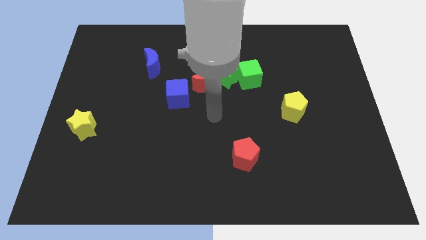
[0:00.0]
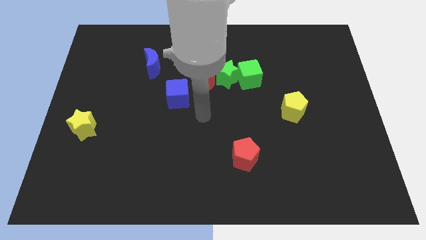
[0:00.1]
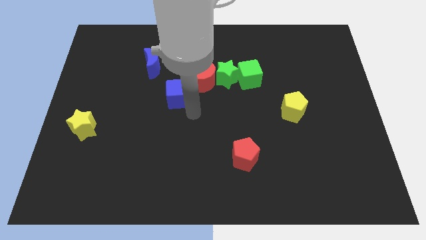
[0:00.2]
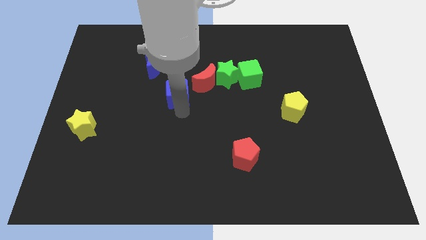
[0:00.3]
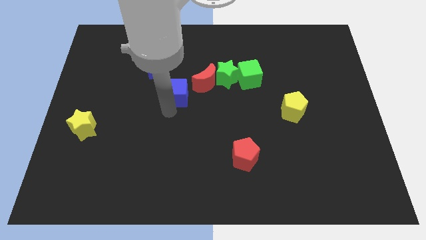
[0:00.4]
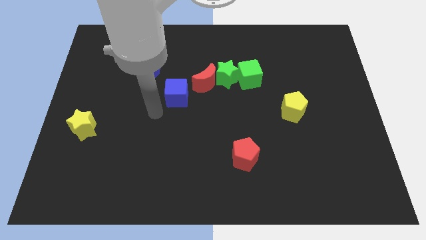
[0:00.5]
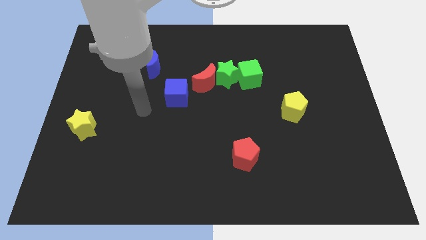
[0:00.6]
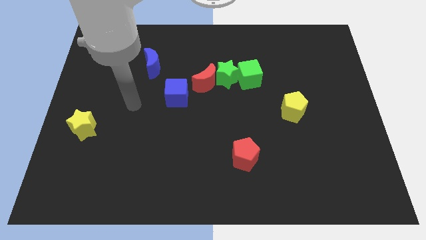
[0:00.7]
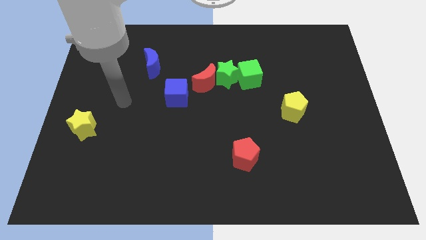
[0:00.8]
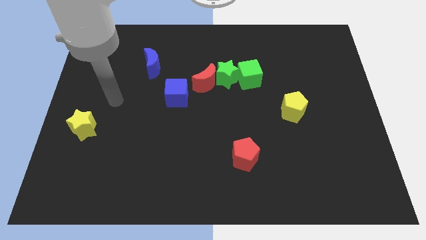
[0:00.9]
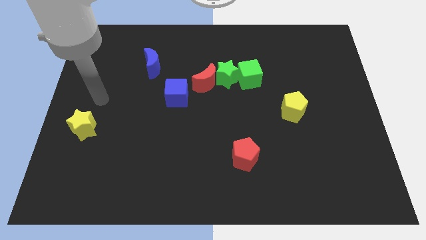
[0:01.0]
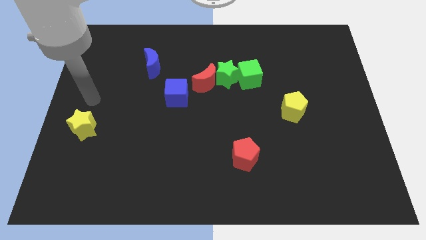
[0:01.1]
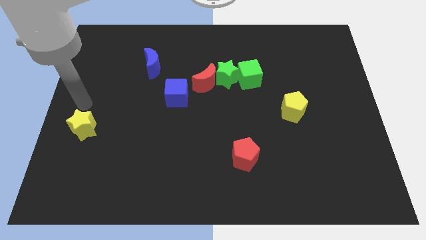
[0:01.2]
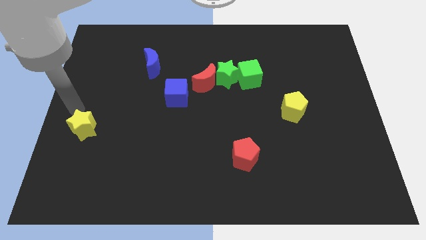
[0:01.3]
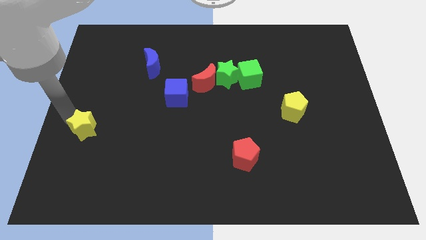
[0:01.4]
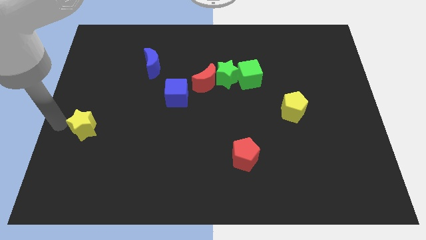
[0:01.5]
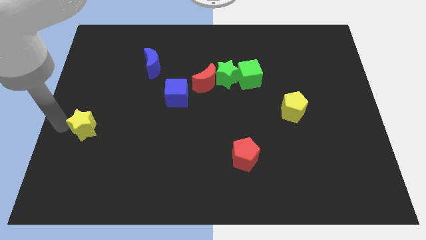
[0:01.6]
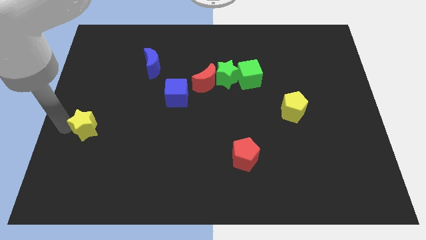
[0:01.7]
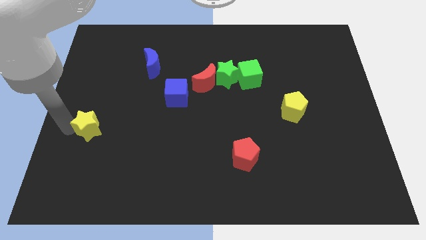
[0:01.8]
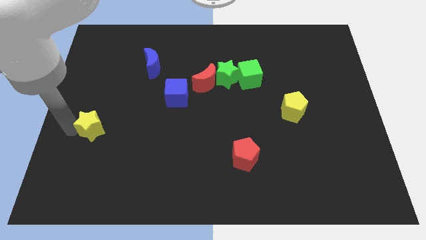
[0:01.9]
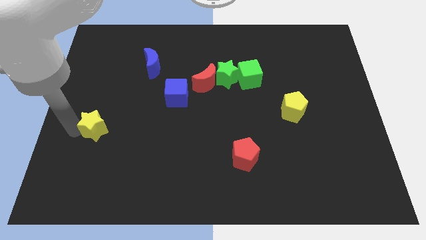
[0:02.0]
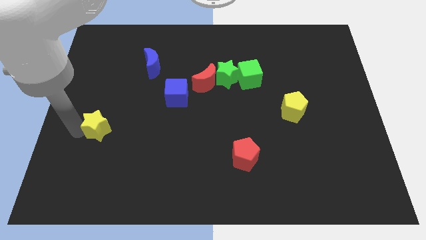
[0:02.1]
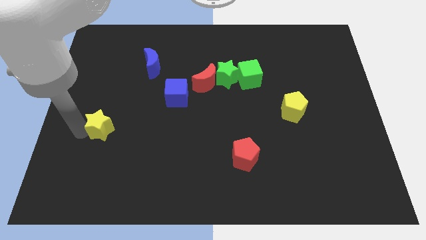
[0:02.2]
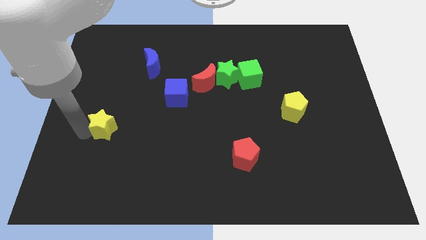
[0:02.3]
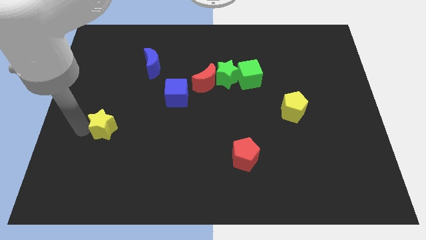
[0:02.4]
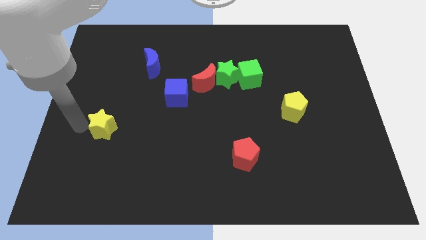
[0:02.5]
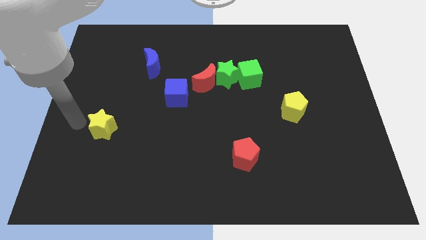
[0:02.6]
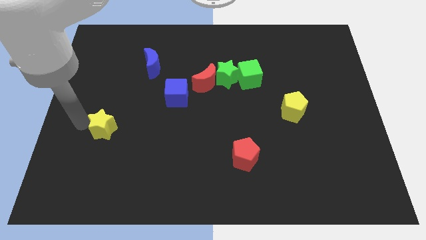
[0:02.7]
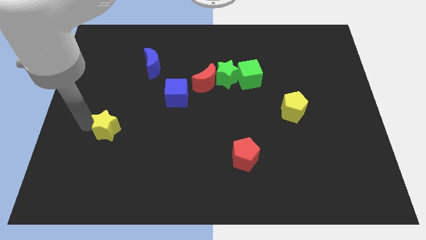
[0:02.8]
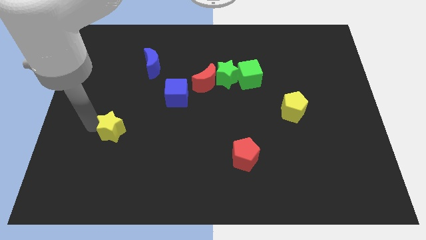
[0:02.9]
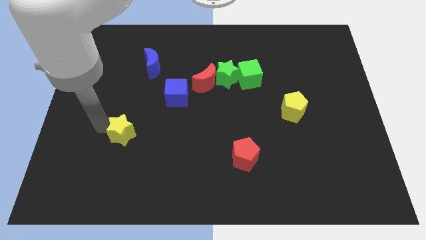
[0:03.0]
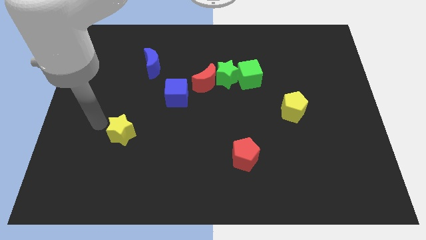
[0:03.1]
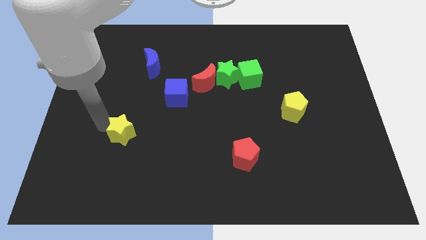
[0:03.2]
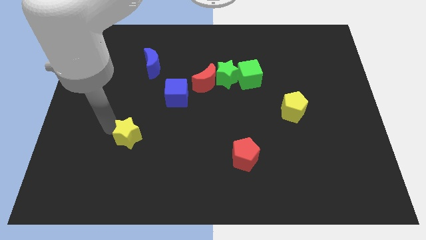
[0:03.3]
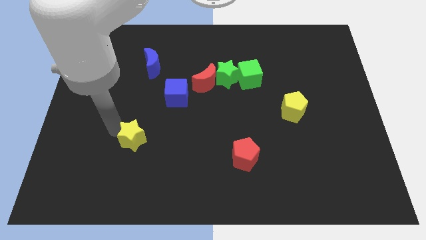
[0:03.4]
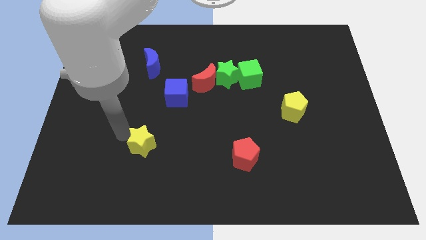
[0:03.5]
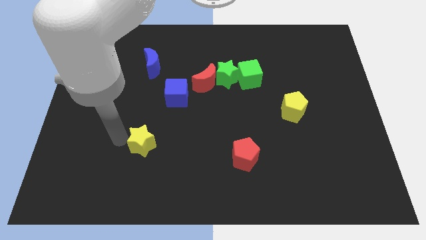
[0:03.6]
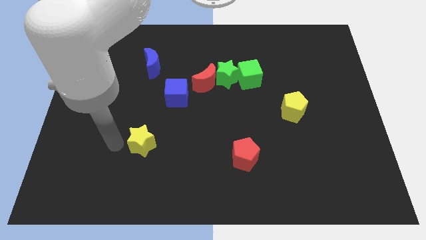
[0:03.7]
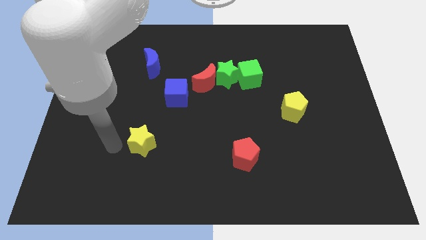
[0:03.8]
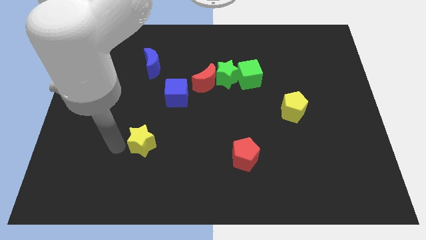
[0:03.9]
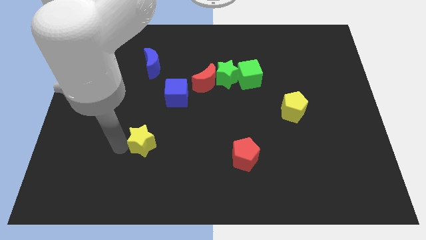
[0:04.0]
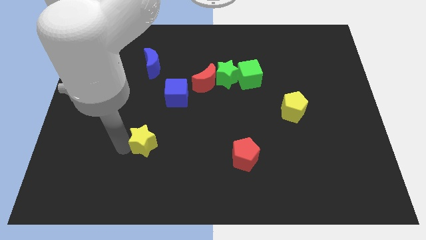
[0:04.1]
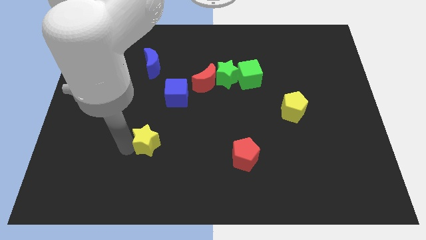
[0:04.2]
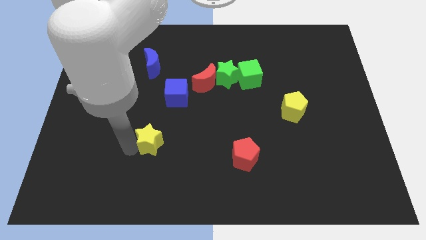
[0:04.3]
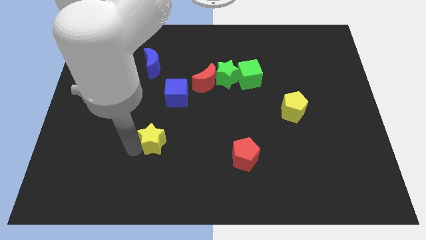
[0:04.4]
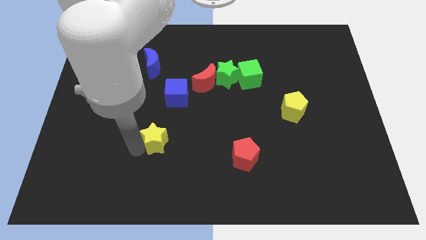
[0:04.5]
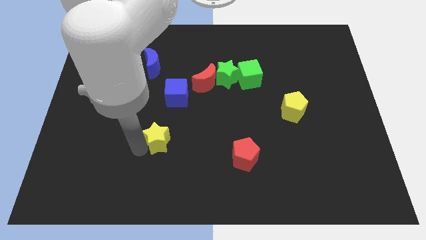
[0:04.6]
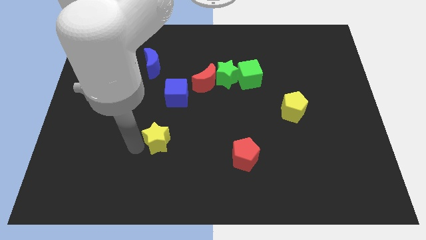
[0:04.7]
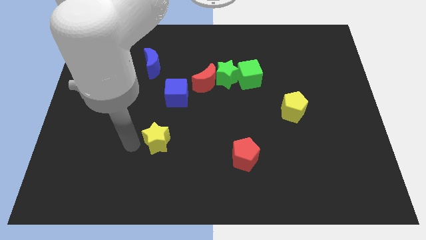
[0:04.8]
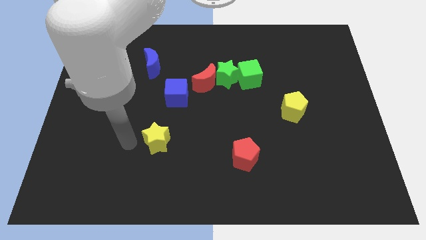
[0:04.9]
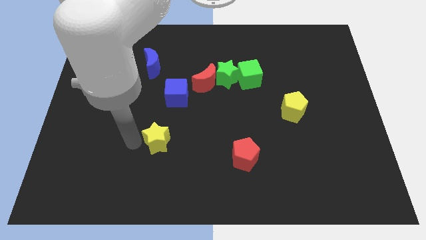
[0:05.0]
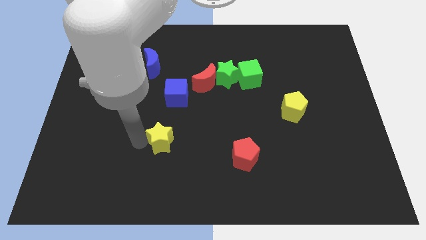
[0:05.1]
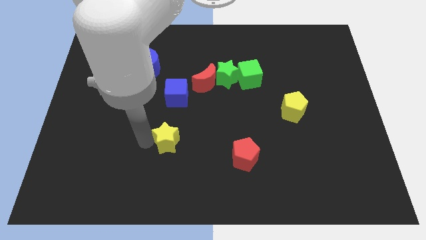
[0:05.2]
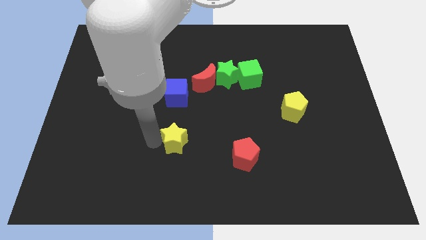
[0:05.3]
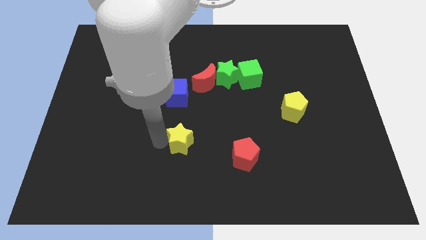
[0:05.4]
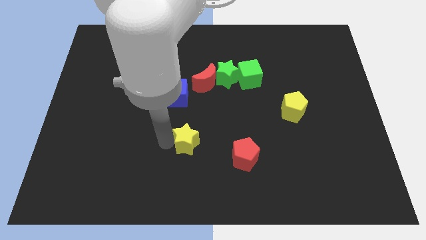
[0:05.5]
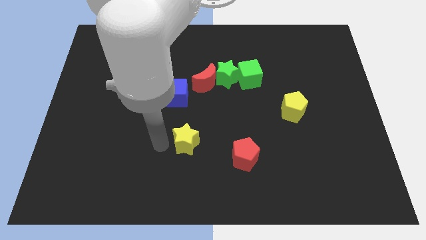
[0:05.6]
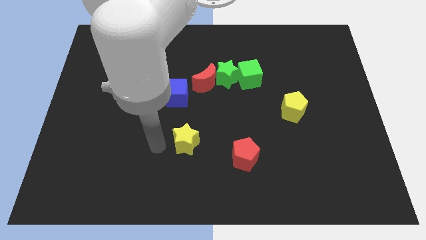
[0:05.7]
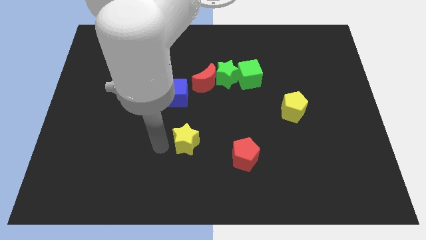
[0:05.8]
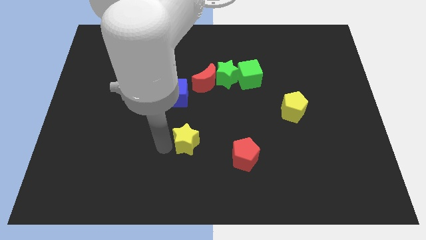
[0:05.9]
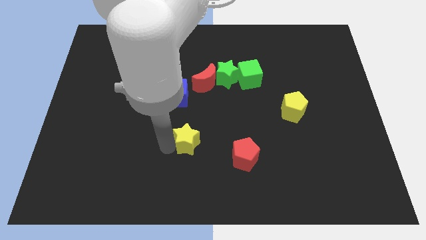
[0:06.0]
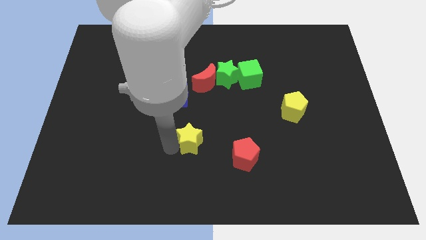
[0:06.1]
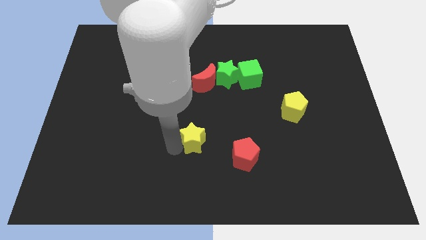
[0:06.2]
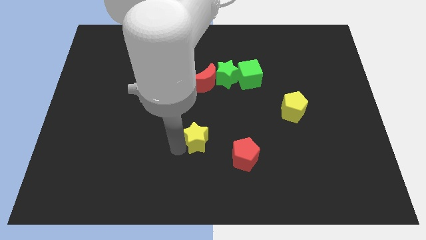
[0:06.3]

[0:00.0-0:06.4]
push the yellow star to the top left of the red pentagon

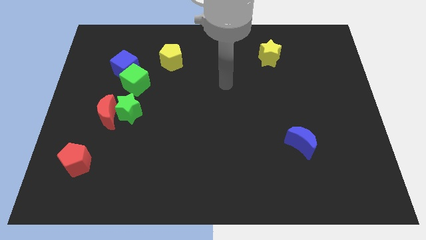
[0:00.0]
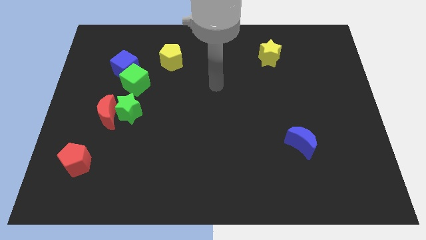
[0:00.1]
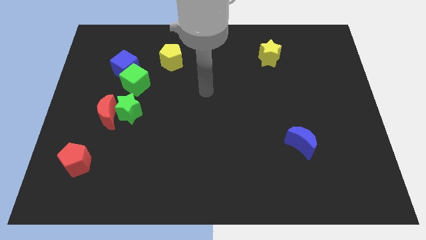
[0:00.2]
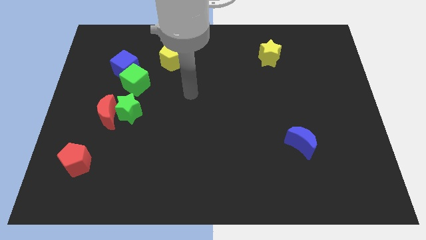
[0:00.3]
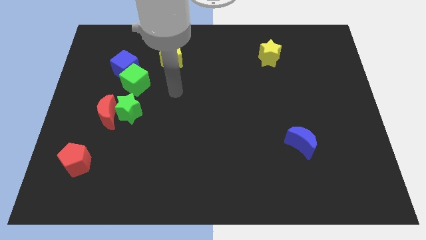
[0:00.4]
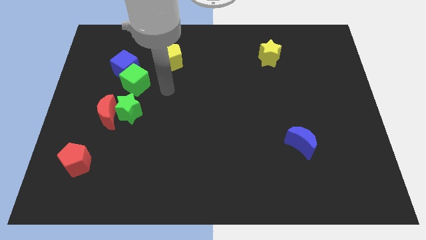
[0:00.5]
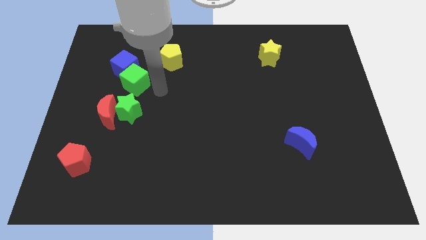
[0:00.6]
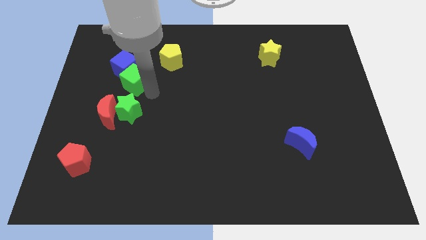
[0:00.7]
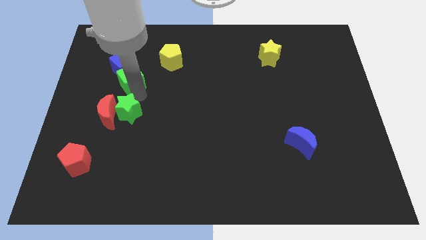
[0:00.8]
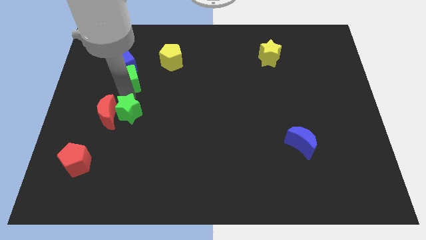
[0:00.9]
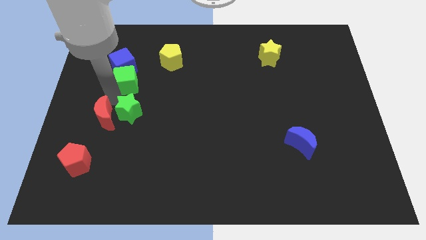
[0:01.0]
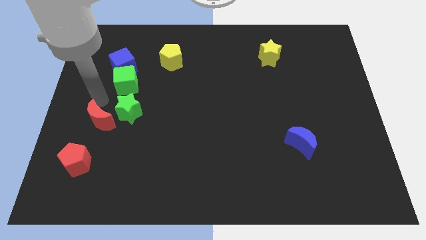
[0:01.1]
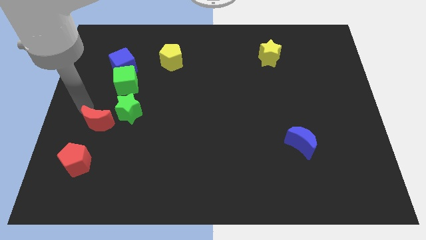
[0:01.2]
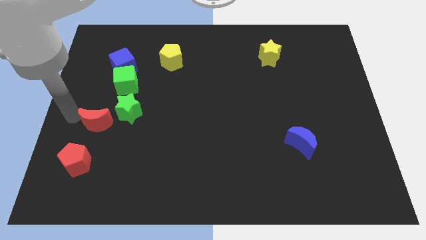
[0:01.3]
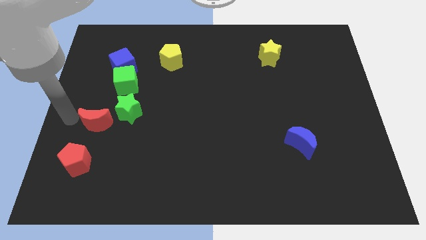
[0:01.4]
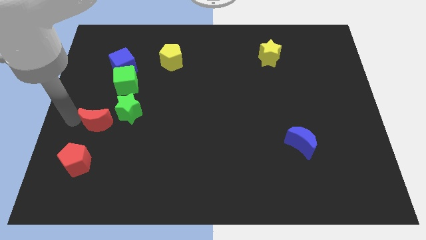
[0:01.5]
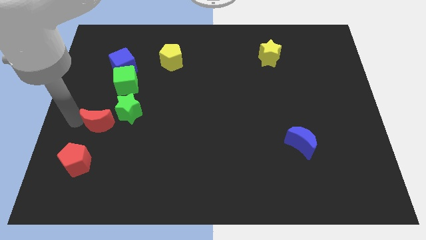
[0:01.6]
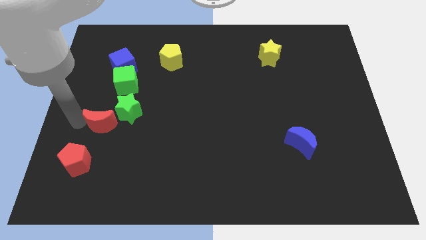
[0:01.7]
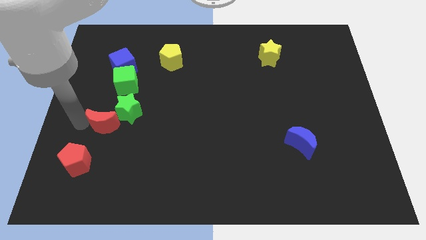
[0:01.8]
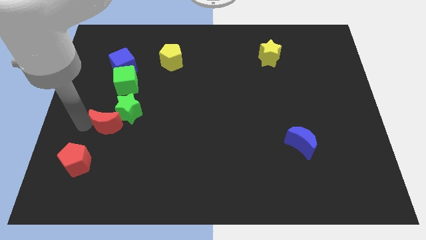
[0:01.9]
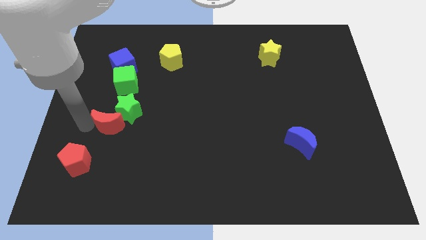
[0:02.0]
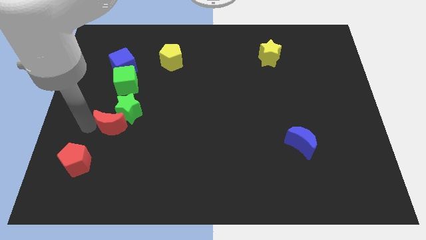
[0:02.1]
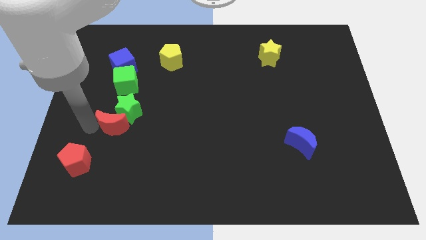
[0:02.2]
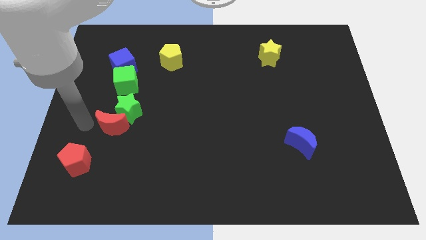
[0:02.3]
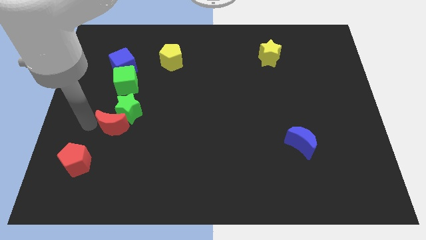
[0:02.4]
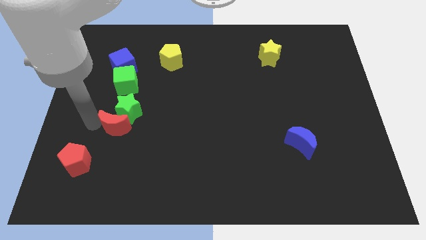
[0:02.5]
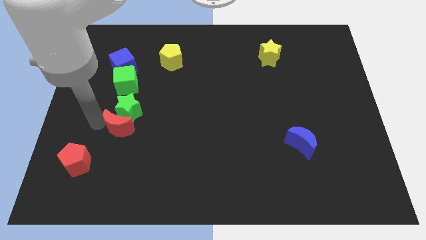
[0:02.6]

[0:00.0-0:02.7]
move the red moon to the bottom right side of the green star
